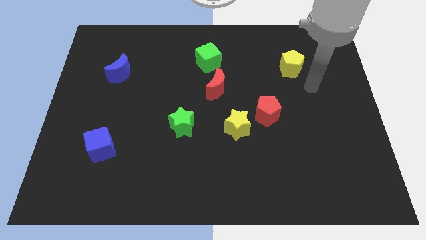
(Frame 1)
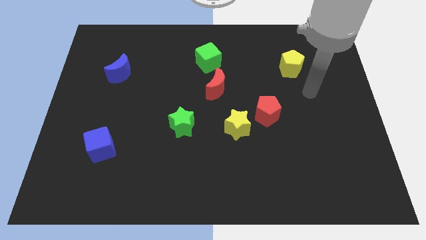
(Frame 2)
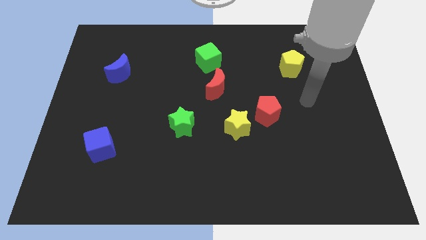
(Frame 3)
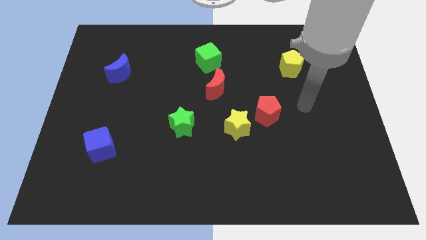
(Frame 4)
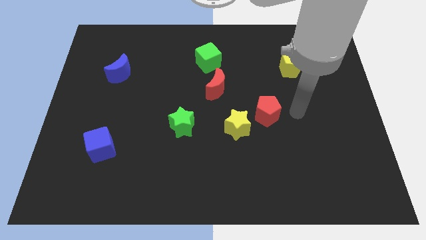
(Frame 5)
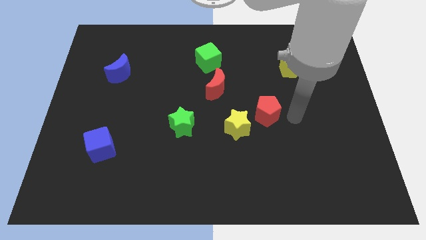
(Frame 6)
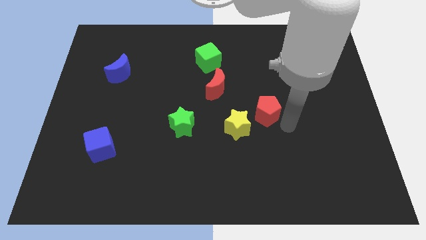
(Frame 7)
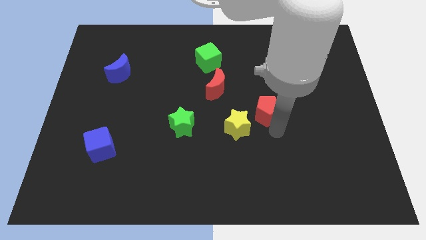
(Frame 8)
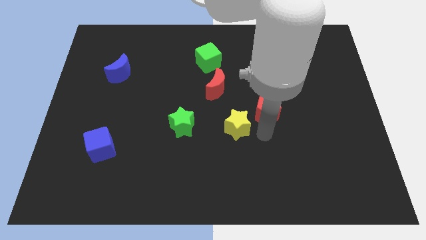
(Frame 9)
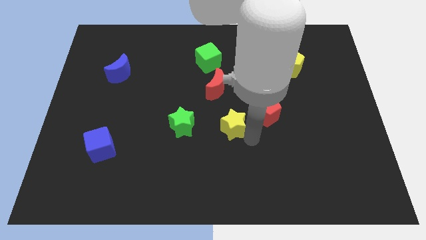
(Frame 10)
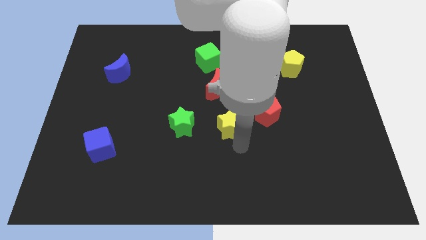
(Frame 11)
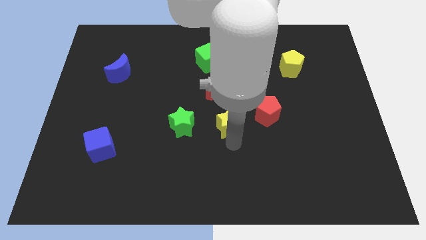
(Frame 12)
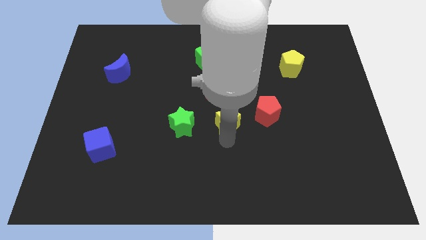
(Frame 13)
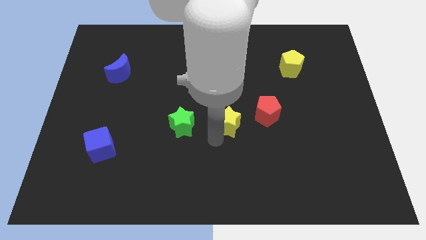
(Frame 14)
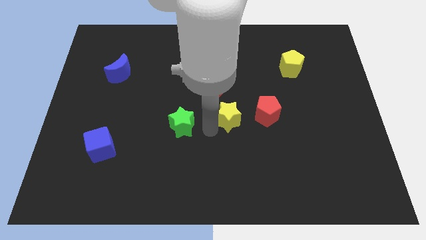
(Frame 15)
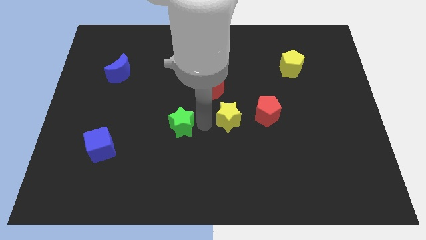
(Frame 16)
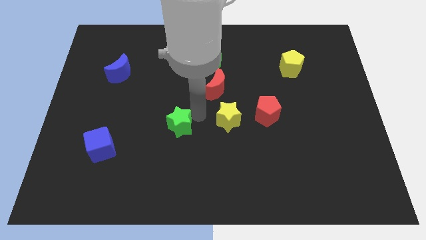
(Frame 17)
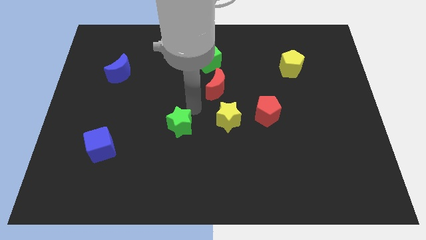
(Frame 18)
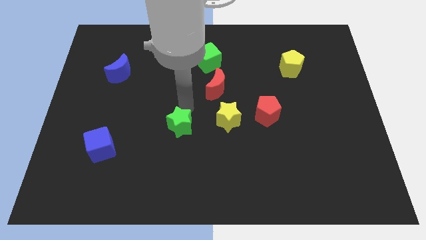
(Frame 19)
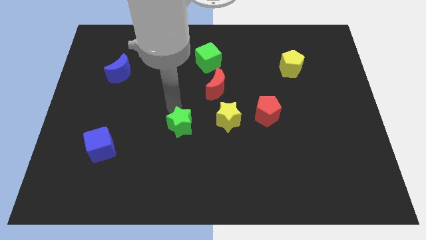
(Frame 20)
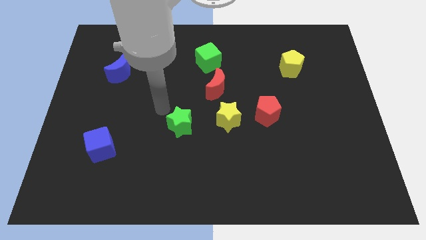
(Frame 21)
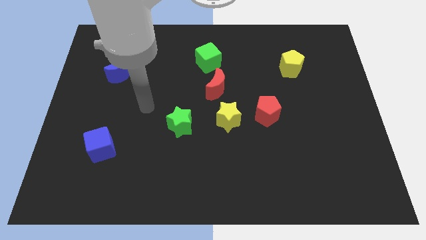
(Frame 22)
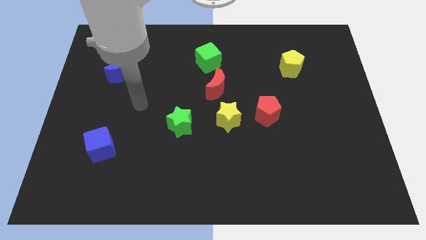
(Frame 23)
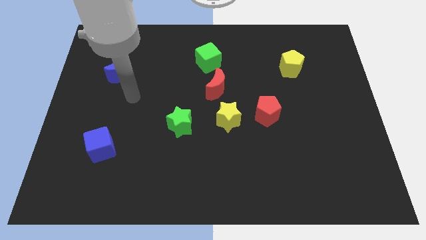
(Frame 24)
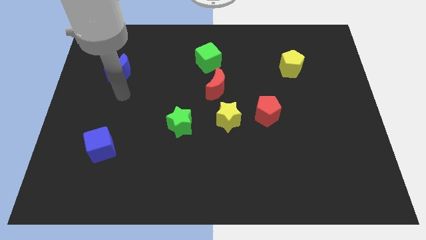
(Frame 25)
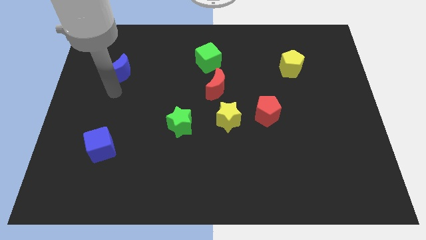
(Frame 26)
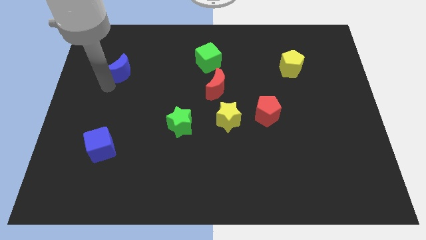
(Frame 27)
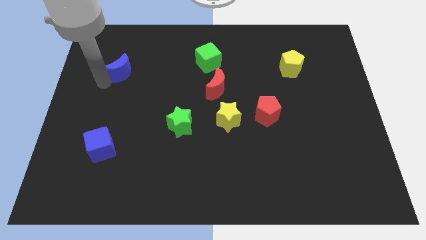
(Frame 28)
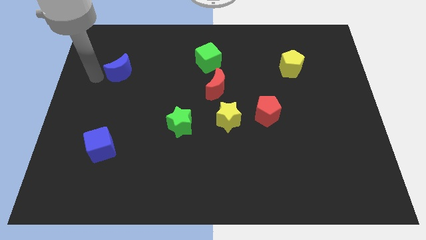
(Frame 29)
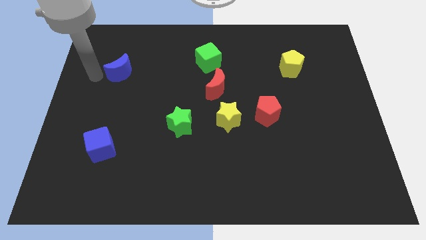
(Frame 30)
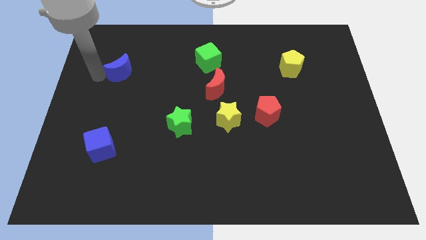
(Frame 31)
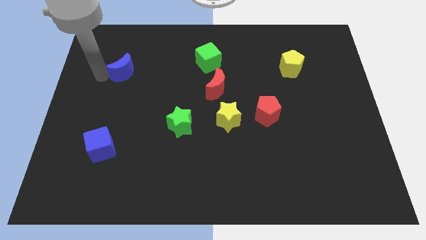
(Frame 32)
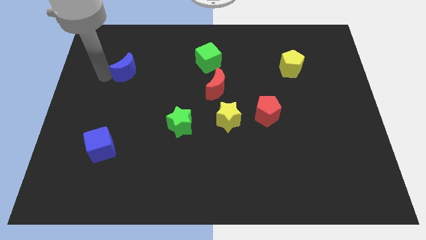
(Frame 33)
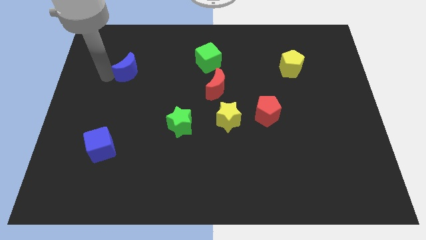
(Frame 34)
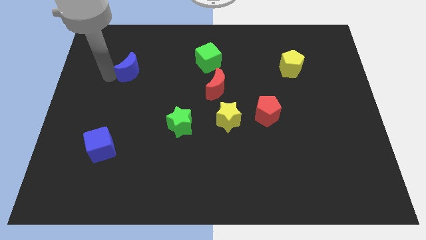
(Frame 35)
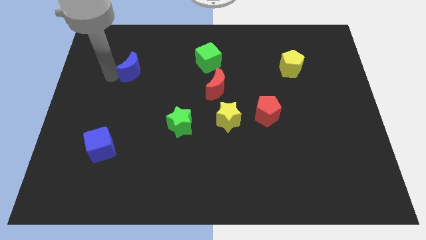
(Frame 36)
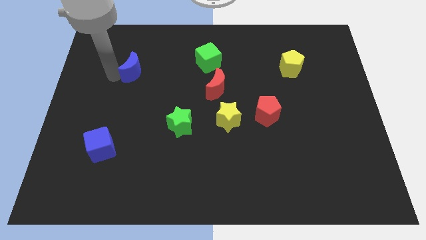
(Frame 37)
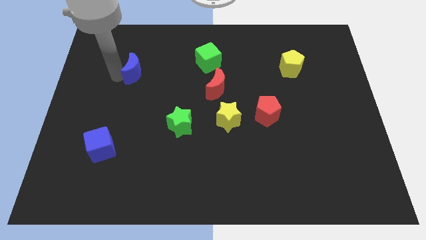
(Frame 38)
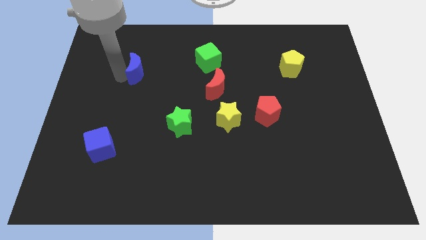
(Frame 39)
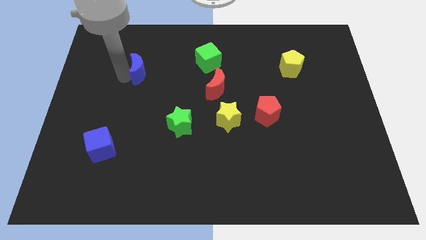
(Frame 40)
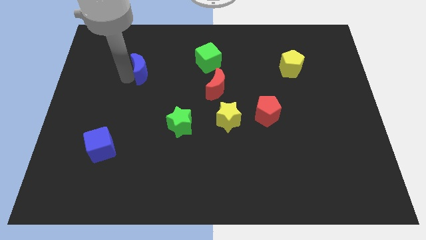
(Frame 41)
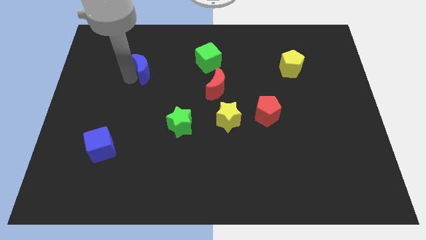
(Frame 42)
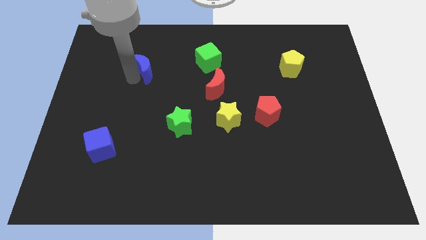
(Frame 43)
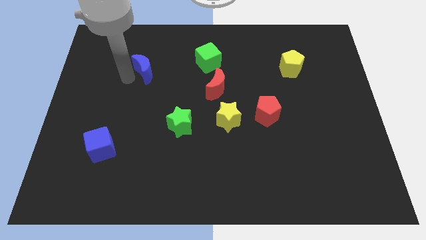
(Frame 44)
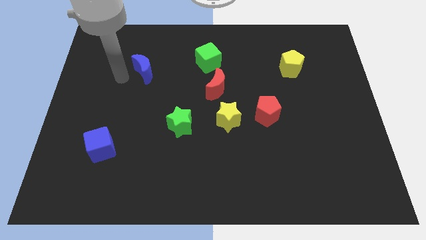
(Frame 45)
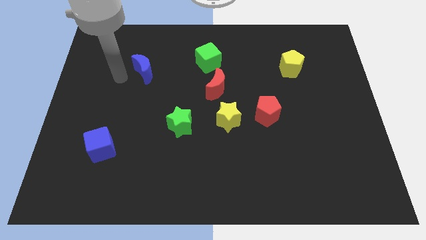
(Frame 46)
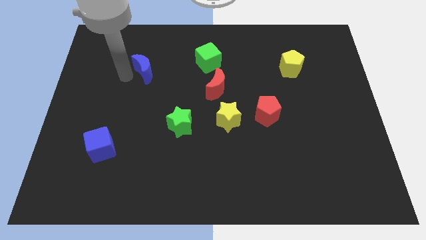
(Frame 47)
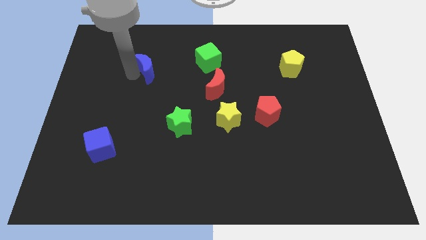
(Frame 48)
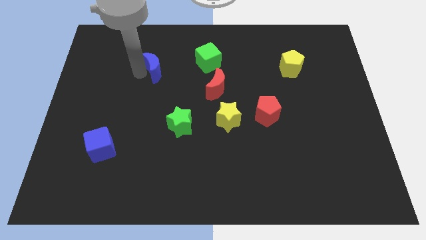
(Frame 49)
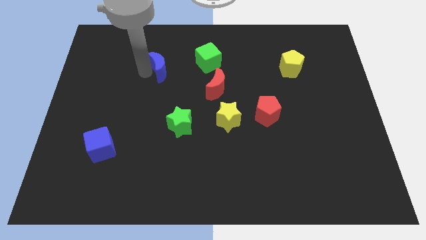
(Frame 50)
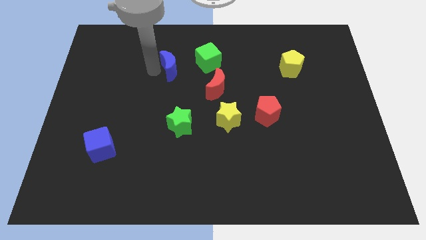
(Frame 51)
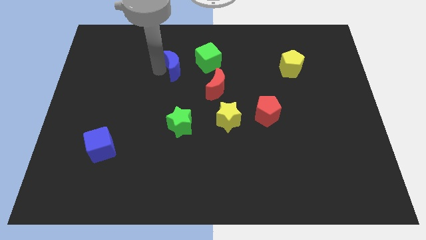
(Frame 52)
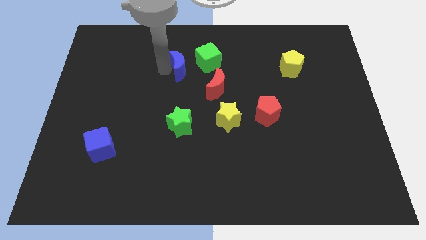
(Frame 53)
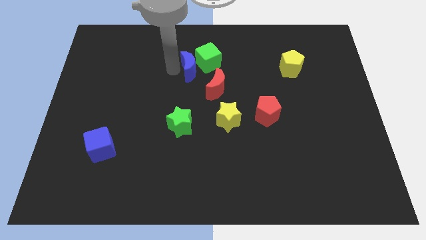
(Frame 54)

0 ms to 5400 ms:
move the blue moon next to the green cube

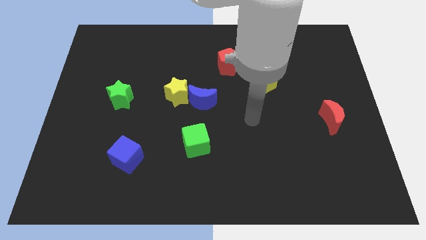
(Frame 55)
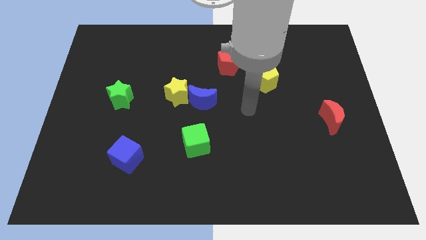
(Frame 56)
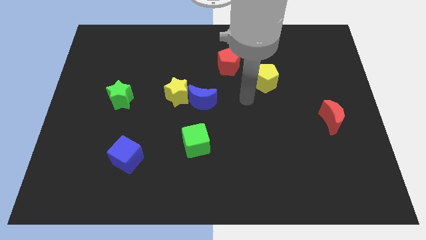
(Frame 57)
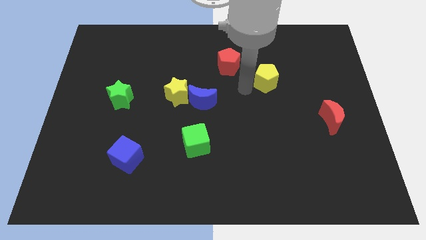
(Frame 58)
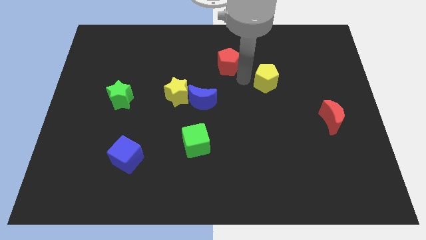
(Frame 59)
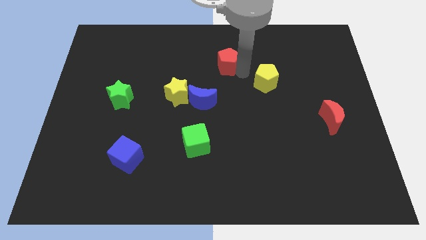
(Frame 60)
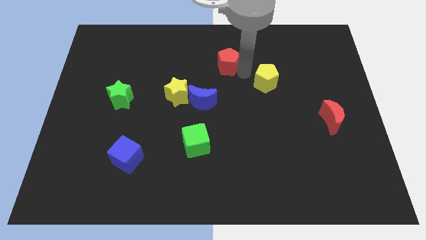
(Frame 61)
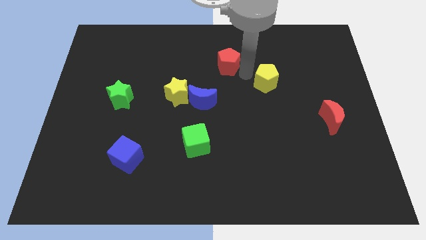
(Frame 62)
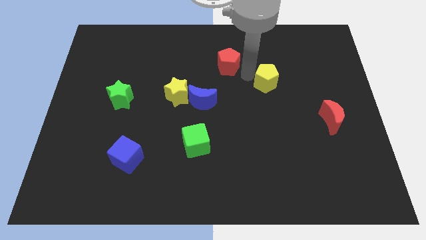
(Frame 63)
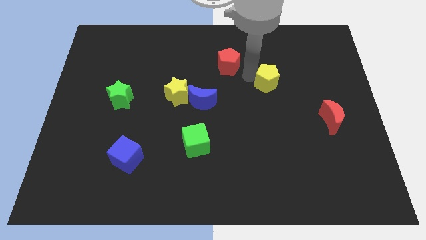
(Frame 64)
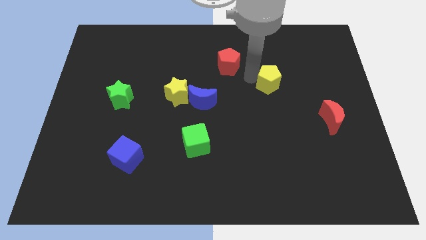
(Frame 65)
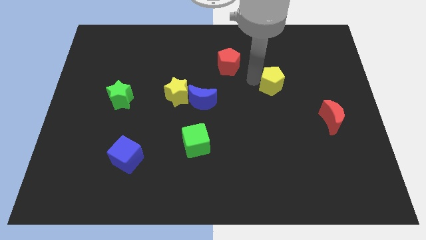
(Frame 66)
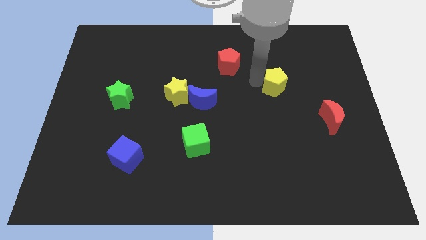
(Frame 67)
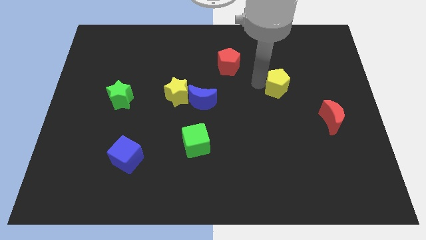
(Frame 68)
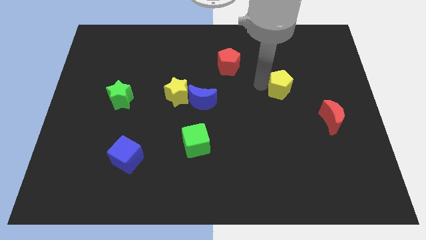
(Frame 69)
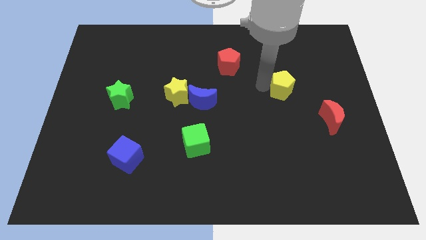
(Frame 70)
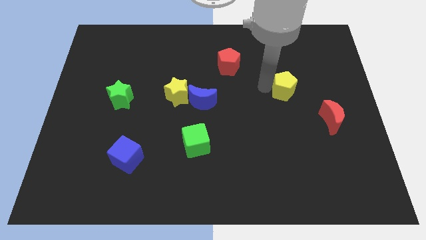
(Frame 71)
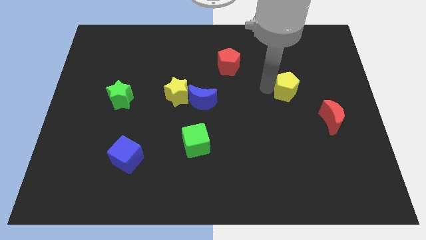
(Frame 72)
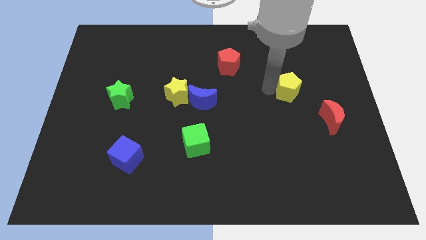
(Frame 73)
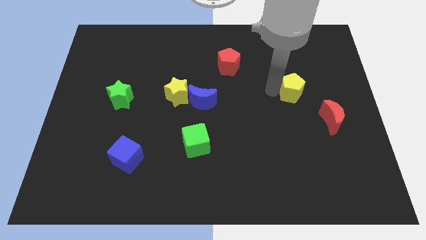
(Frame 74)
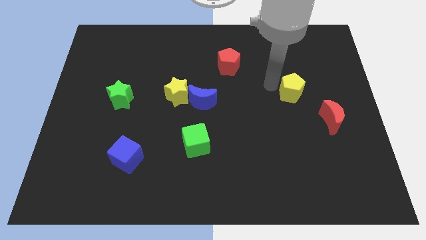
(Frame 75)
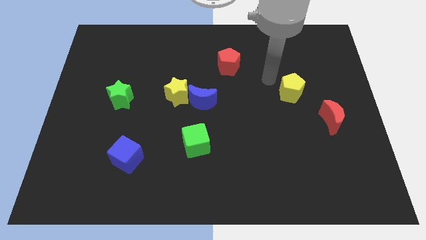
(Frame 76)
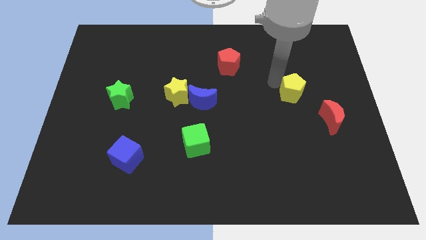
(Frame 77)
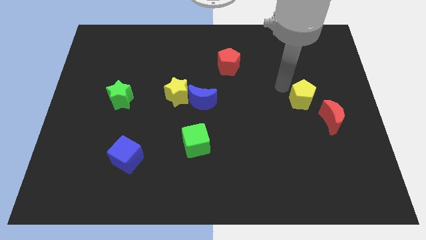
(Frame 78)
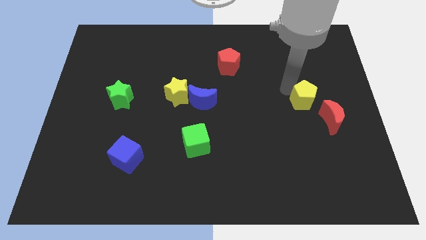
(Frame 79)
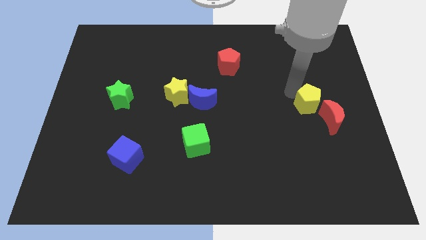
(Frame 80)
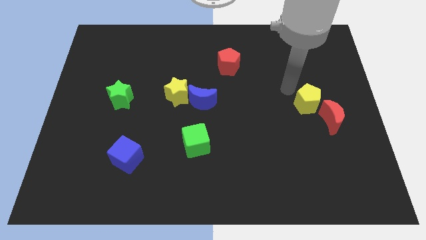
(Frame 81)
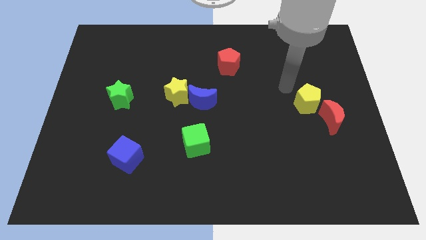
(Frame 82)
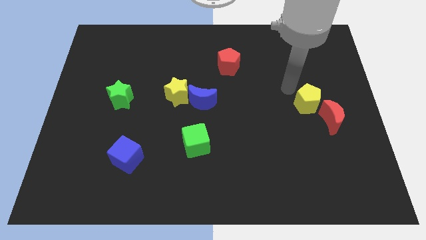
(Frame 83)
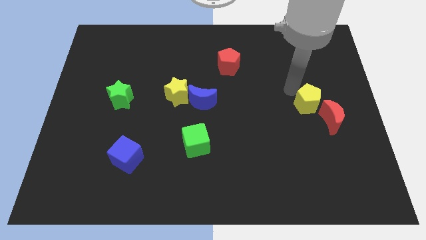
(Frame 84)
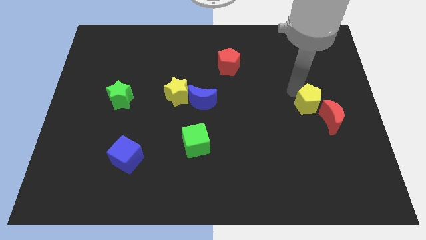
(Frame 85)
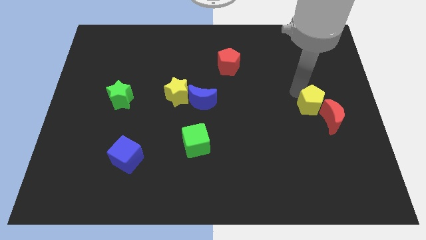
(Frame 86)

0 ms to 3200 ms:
put the yellow pentagon to the red moon
